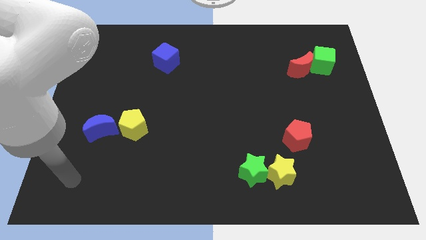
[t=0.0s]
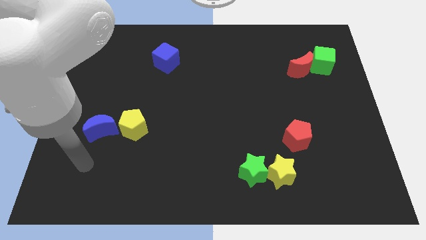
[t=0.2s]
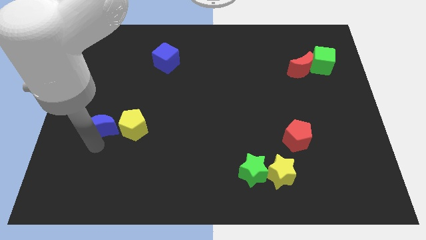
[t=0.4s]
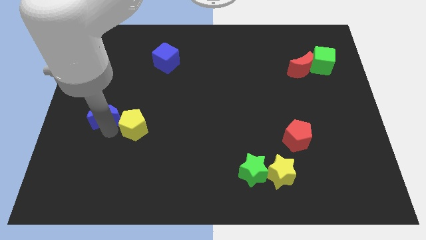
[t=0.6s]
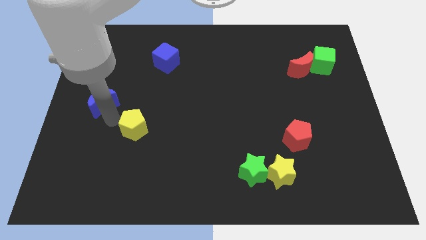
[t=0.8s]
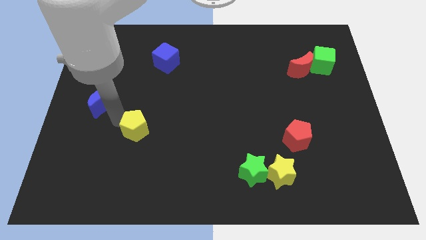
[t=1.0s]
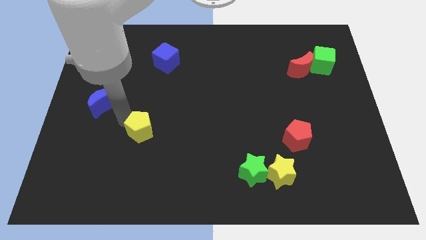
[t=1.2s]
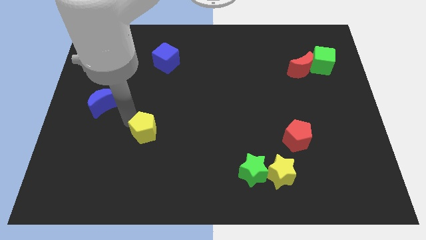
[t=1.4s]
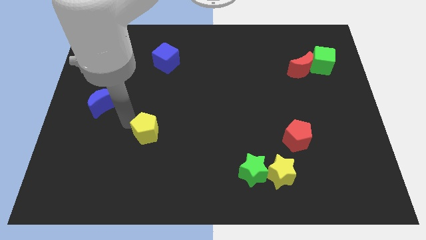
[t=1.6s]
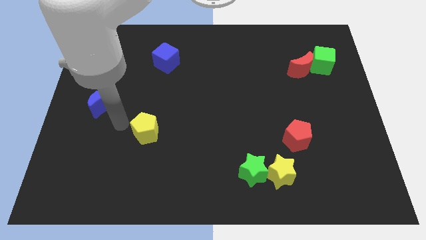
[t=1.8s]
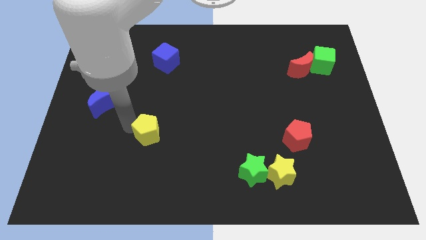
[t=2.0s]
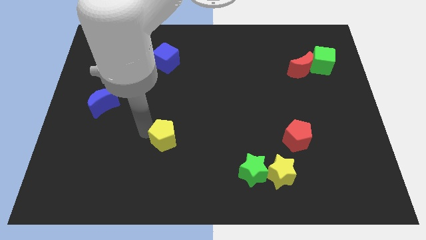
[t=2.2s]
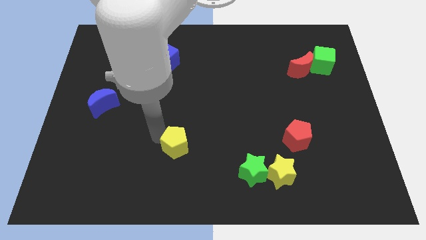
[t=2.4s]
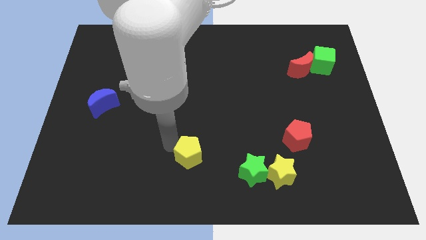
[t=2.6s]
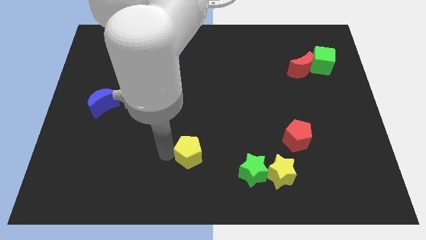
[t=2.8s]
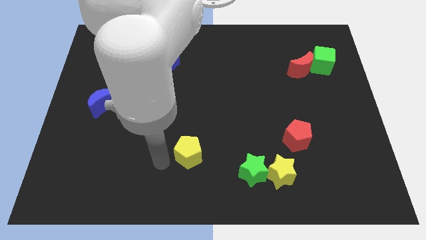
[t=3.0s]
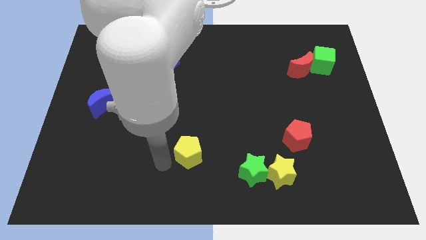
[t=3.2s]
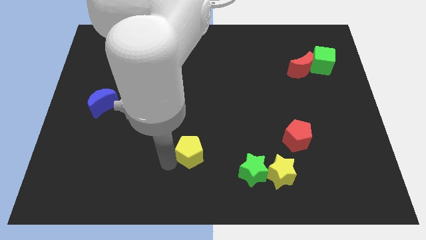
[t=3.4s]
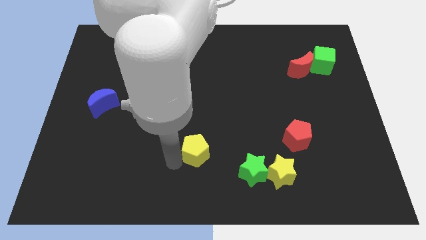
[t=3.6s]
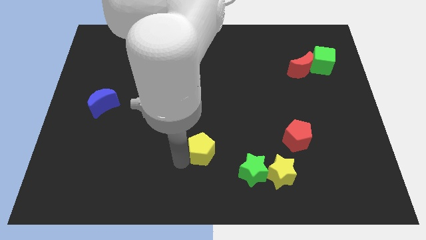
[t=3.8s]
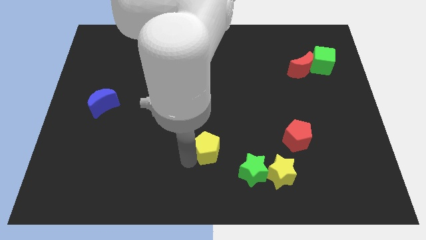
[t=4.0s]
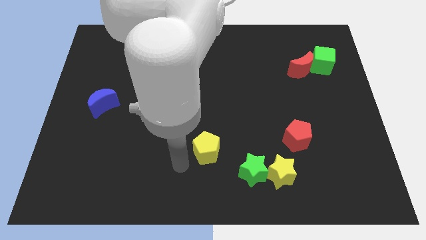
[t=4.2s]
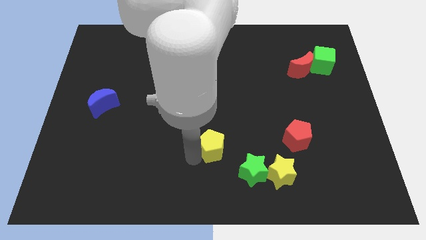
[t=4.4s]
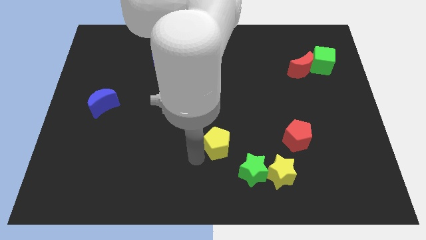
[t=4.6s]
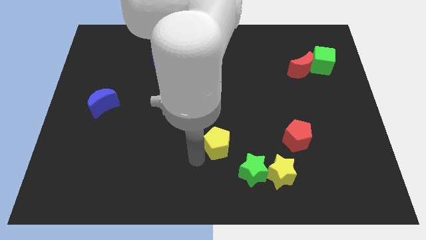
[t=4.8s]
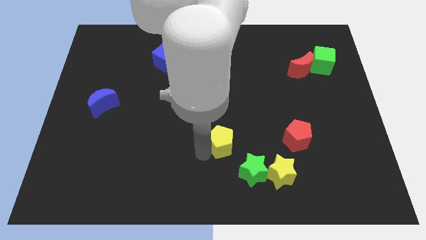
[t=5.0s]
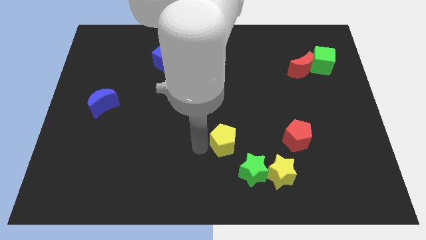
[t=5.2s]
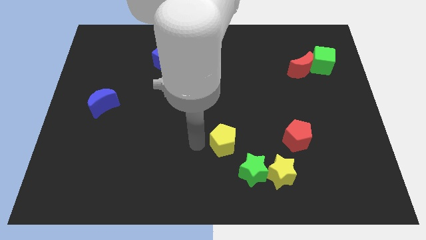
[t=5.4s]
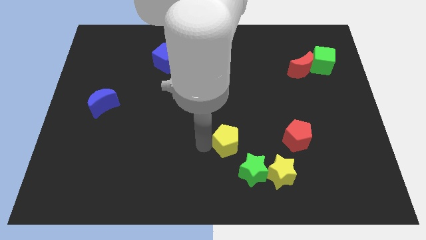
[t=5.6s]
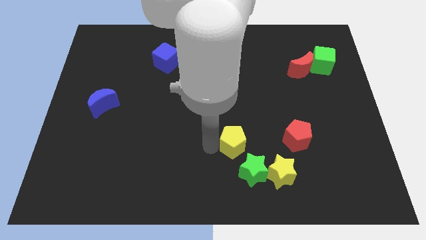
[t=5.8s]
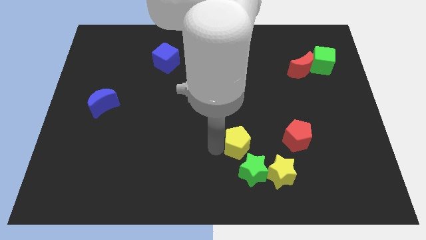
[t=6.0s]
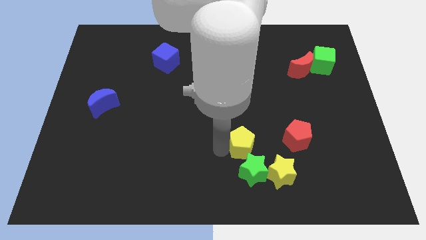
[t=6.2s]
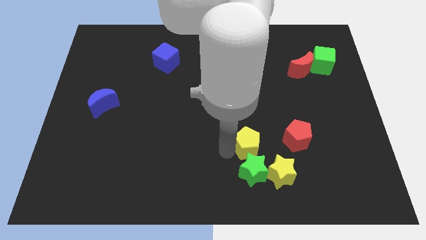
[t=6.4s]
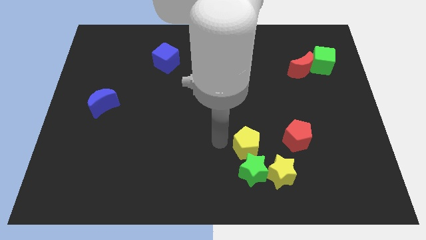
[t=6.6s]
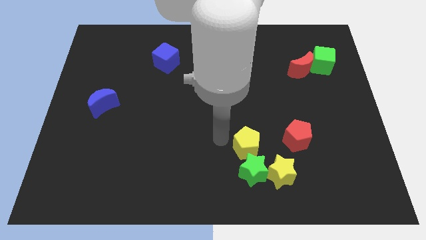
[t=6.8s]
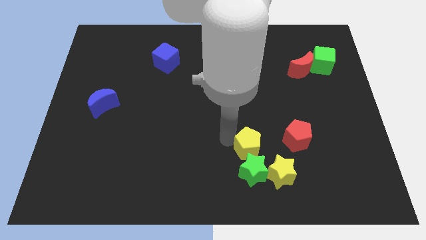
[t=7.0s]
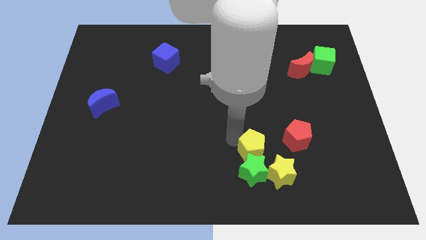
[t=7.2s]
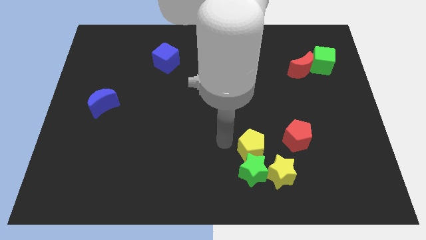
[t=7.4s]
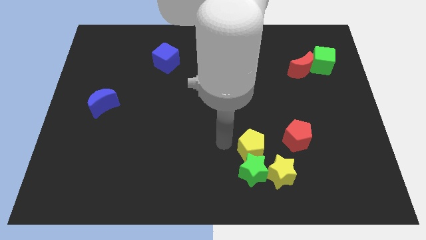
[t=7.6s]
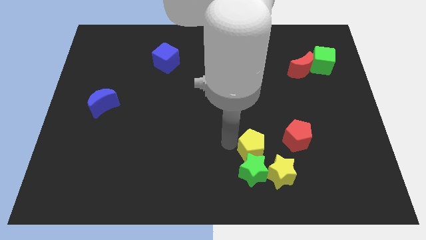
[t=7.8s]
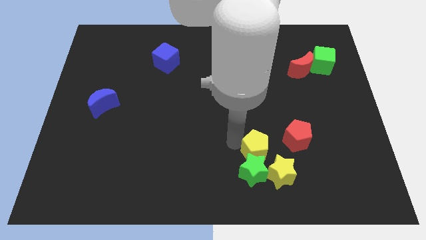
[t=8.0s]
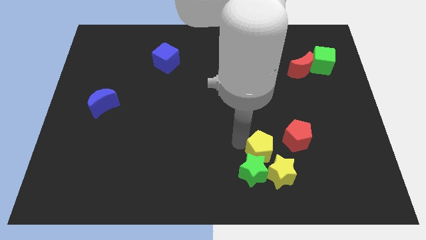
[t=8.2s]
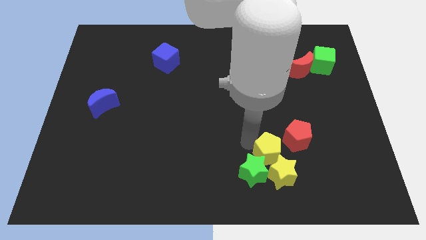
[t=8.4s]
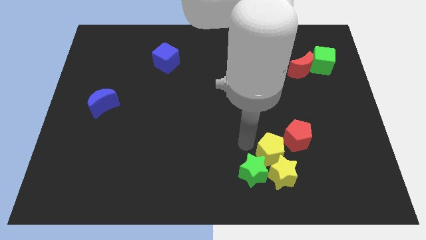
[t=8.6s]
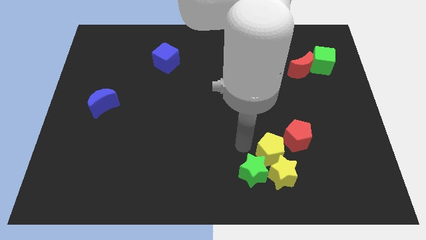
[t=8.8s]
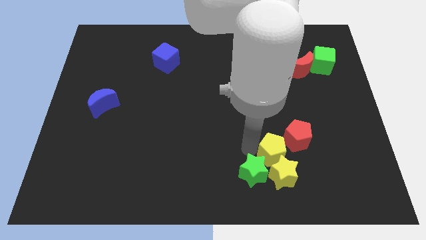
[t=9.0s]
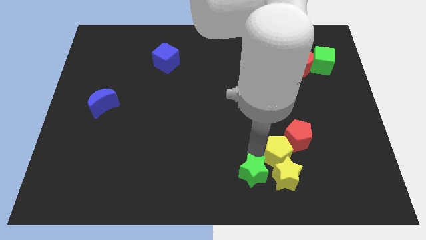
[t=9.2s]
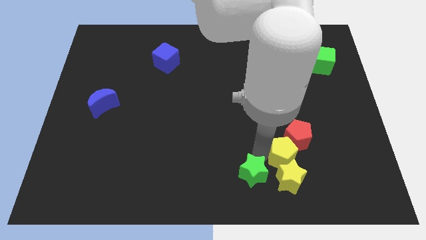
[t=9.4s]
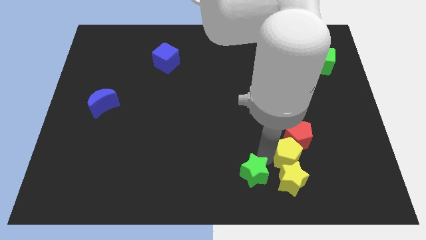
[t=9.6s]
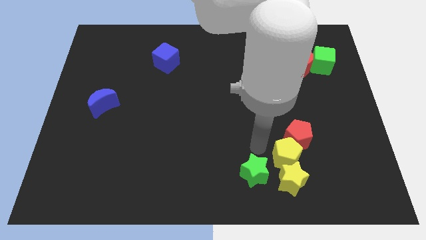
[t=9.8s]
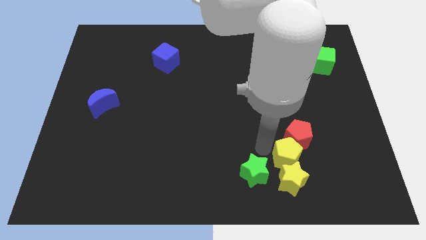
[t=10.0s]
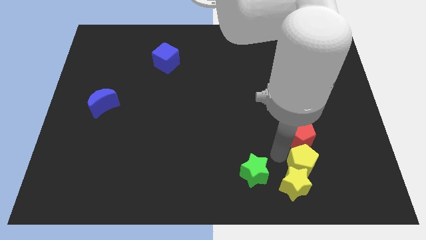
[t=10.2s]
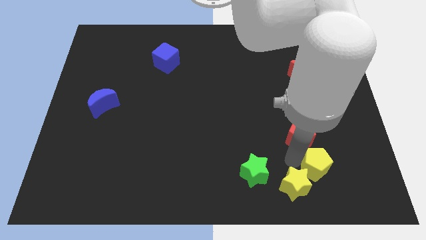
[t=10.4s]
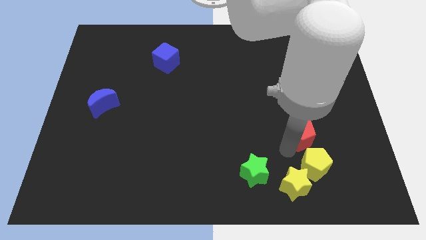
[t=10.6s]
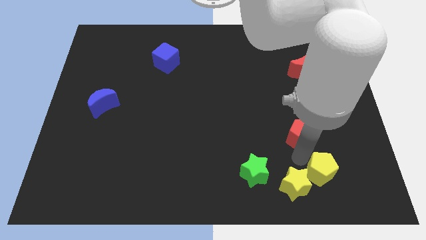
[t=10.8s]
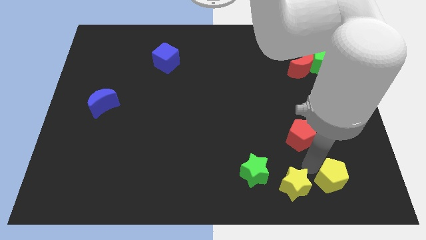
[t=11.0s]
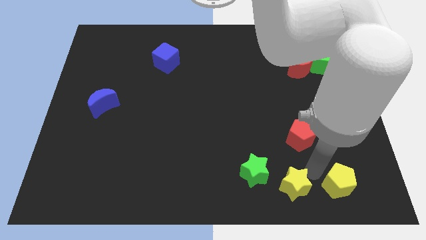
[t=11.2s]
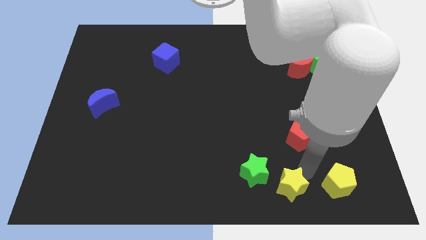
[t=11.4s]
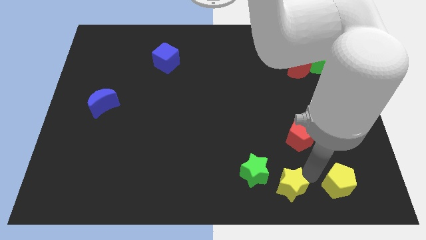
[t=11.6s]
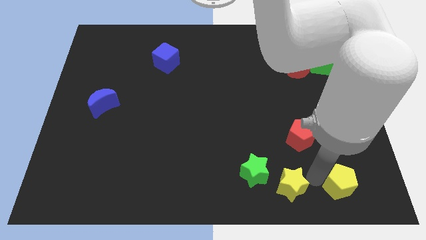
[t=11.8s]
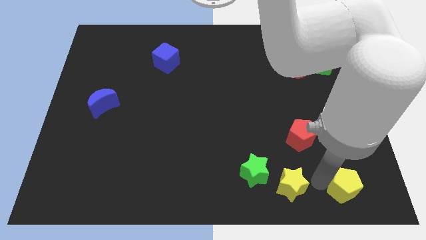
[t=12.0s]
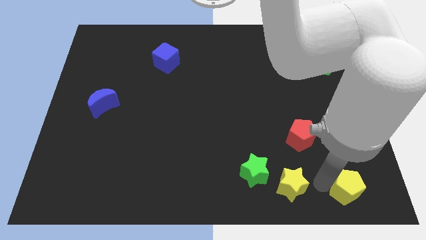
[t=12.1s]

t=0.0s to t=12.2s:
put the yellow pentagon to the bottom right of the board

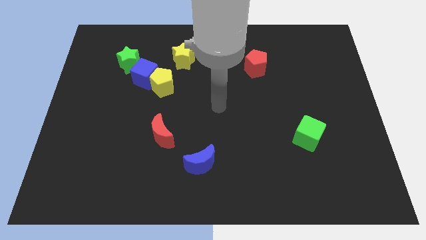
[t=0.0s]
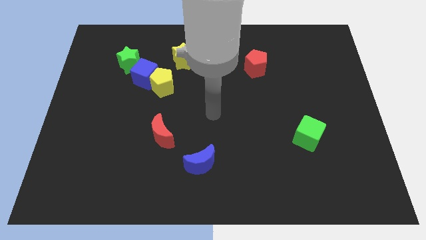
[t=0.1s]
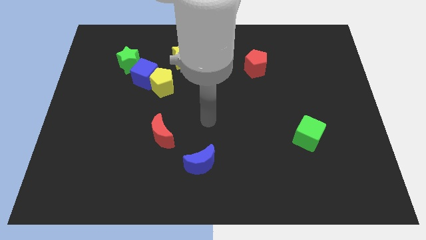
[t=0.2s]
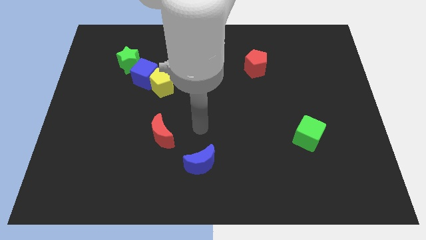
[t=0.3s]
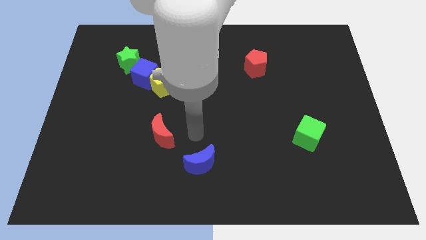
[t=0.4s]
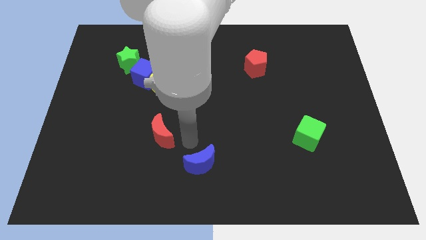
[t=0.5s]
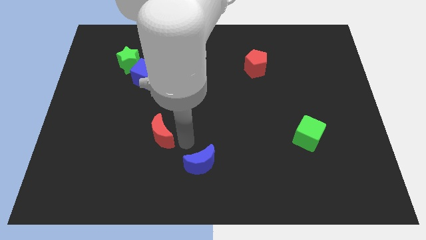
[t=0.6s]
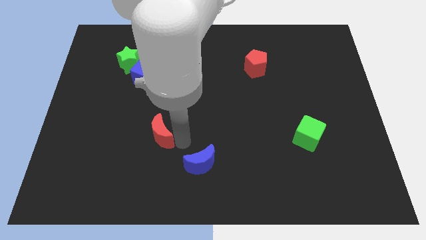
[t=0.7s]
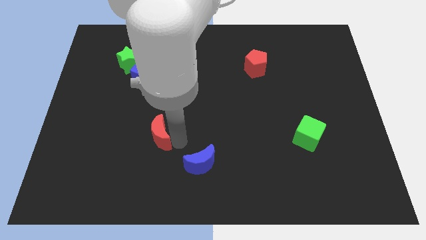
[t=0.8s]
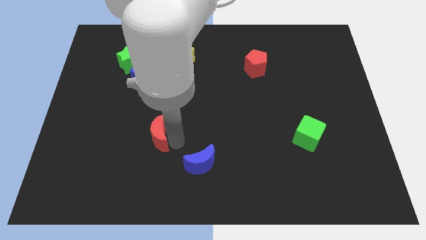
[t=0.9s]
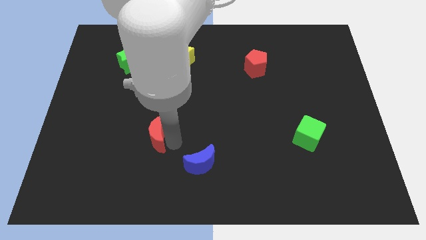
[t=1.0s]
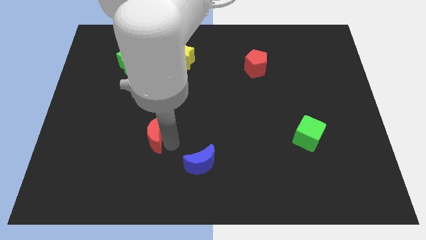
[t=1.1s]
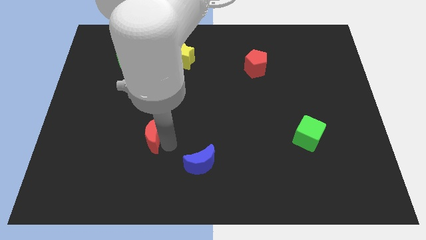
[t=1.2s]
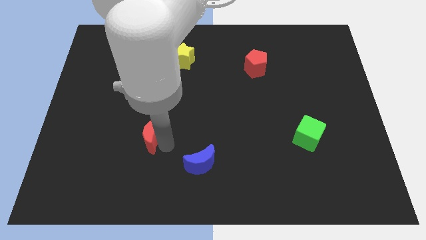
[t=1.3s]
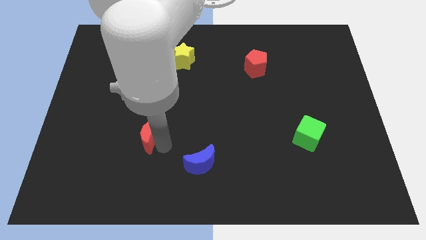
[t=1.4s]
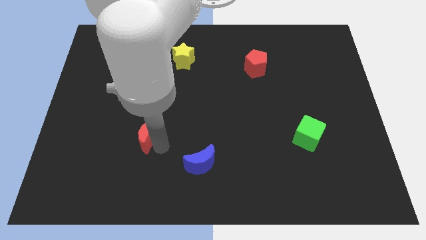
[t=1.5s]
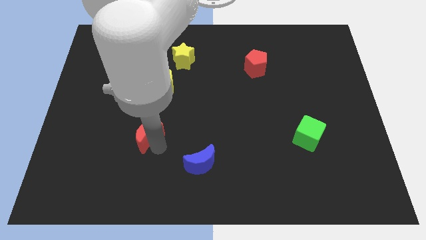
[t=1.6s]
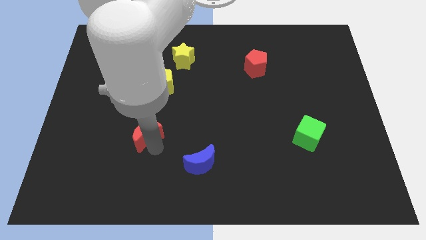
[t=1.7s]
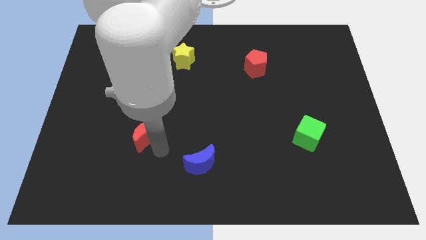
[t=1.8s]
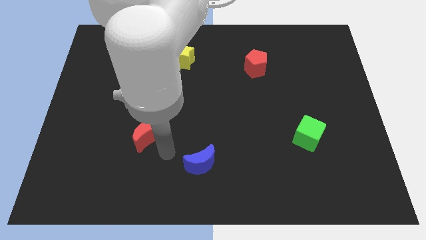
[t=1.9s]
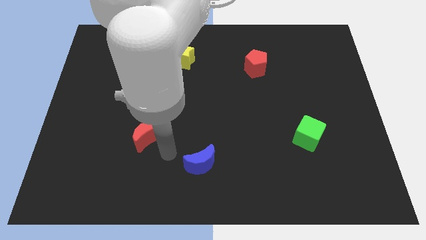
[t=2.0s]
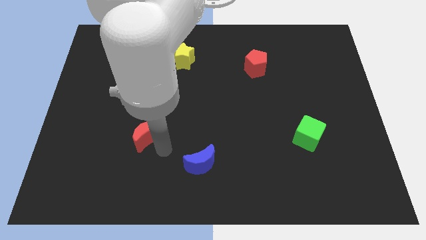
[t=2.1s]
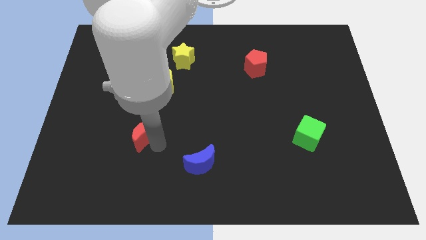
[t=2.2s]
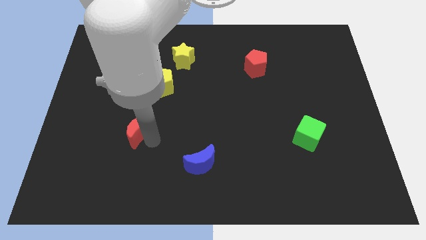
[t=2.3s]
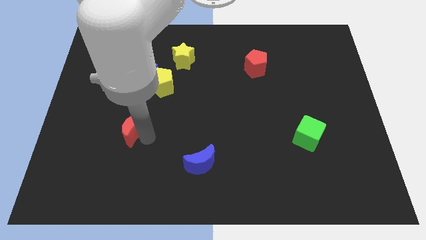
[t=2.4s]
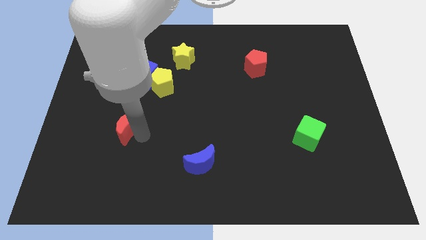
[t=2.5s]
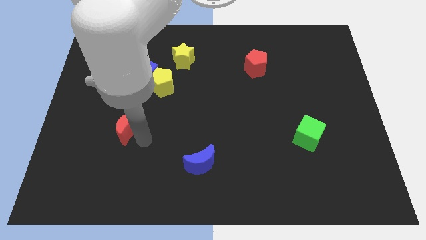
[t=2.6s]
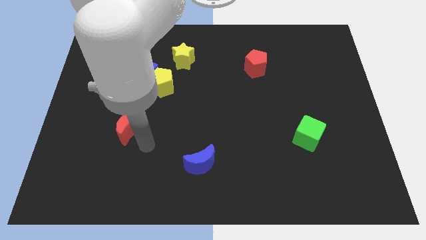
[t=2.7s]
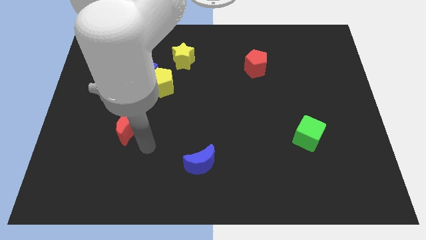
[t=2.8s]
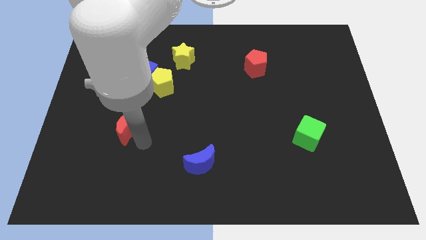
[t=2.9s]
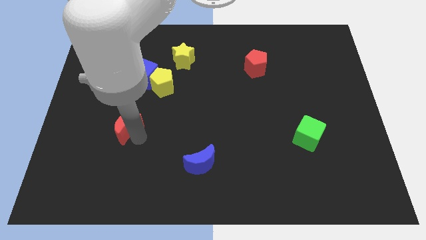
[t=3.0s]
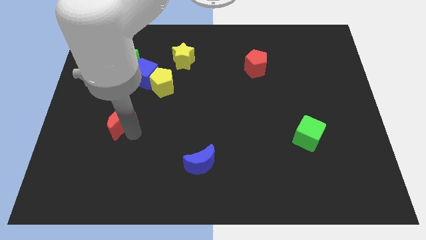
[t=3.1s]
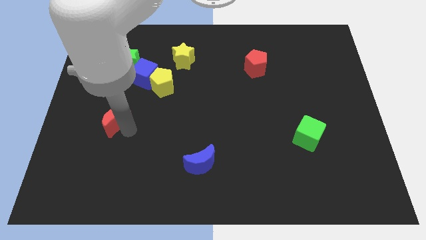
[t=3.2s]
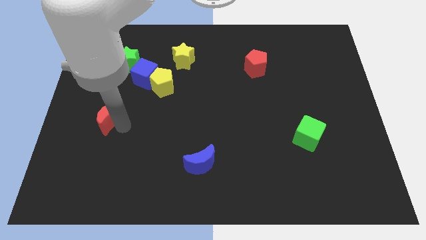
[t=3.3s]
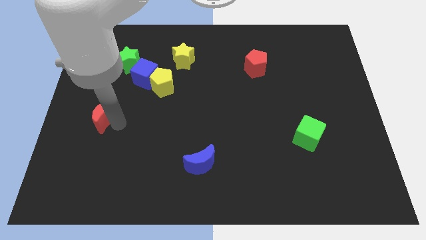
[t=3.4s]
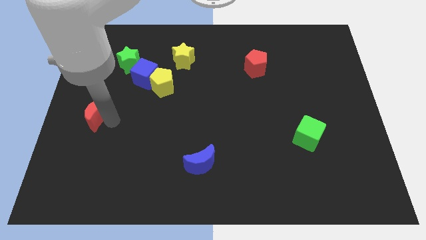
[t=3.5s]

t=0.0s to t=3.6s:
move the red moon to the left side of the board
